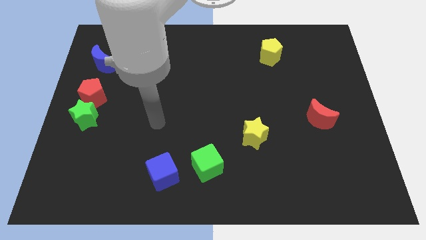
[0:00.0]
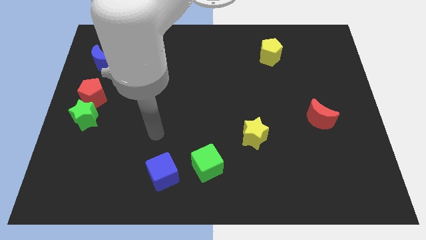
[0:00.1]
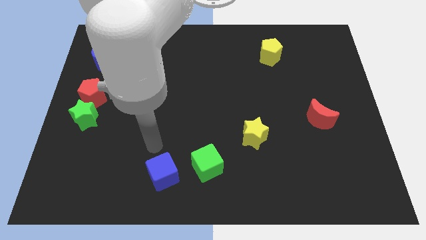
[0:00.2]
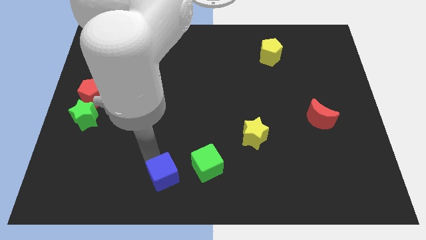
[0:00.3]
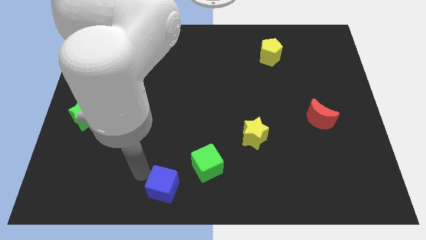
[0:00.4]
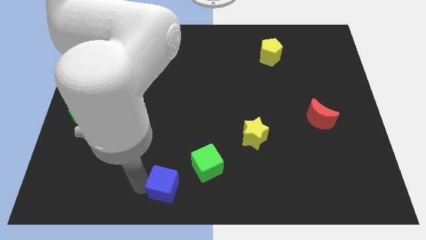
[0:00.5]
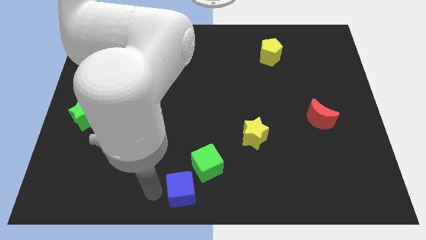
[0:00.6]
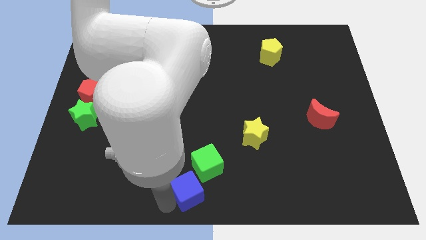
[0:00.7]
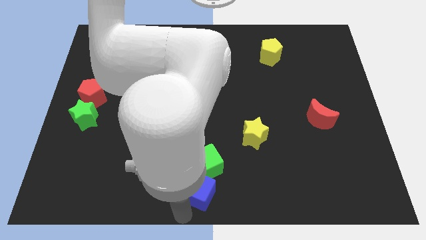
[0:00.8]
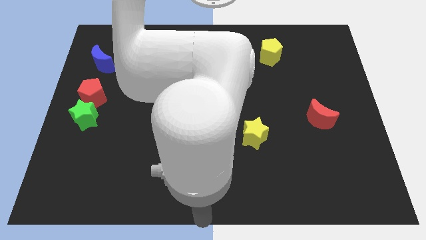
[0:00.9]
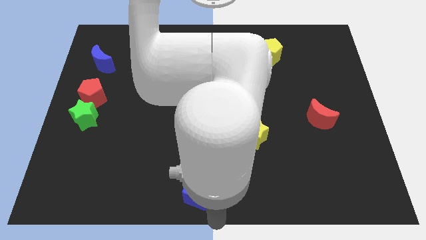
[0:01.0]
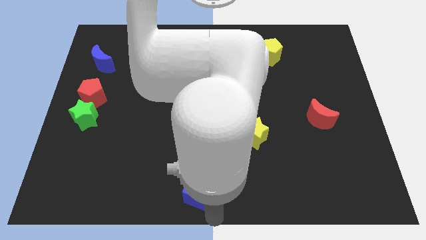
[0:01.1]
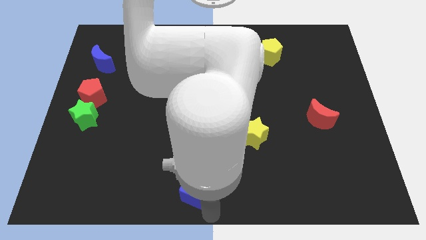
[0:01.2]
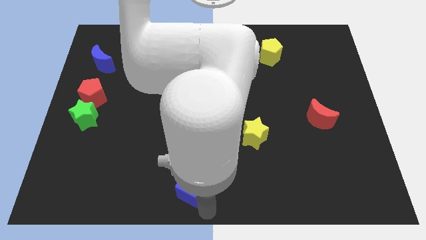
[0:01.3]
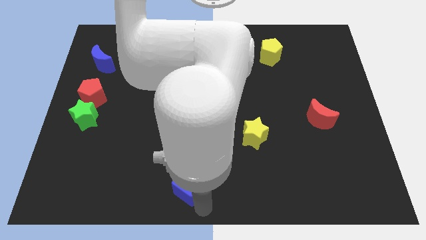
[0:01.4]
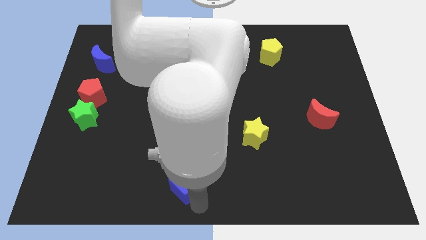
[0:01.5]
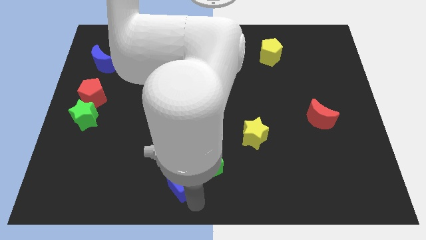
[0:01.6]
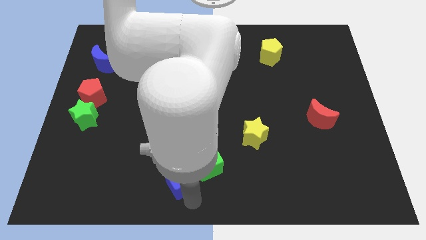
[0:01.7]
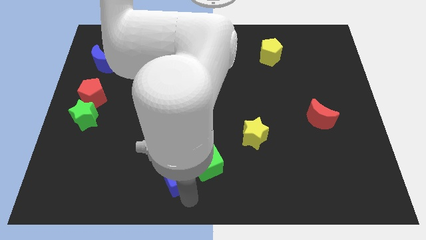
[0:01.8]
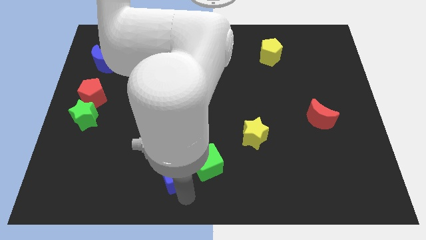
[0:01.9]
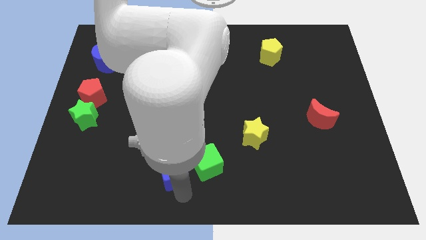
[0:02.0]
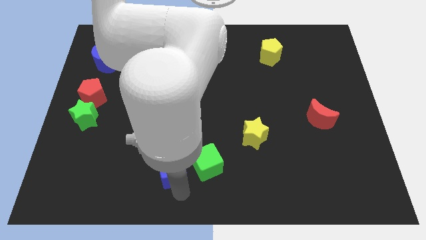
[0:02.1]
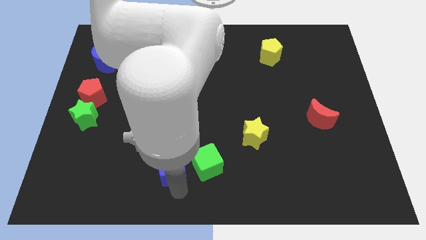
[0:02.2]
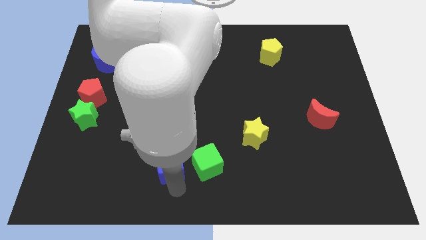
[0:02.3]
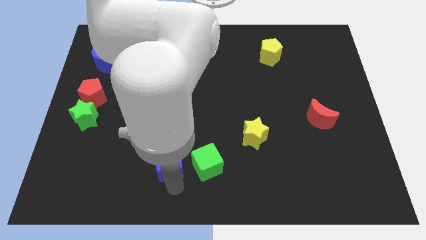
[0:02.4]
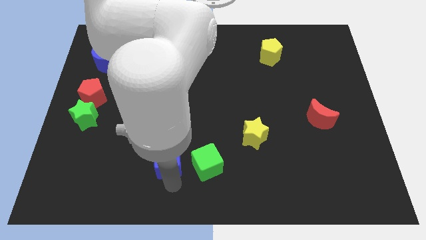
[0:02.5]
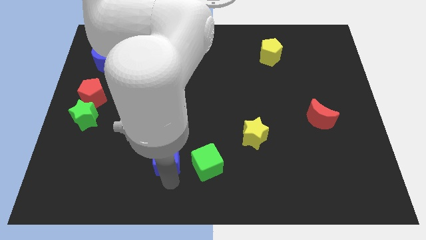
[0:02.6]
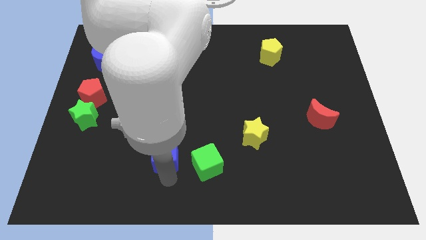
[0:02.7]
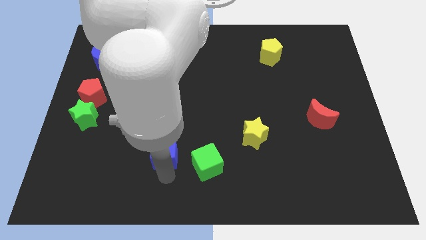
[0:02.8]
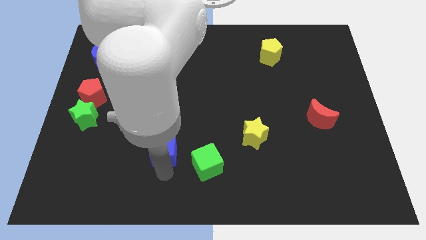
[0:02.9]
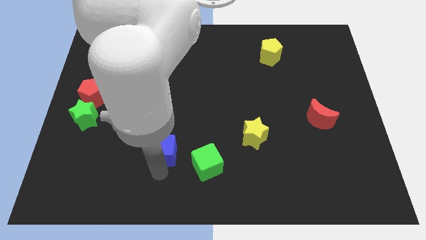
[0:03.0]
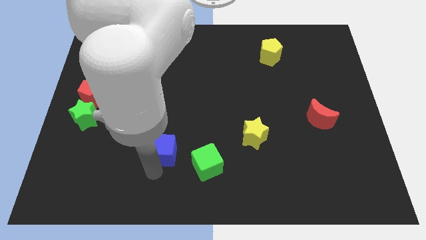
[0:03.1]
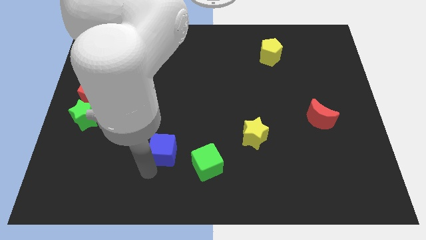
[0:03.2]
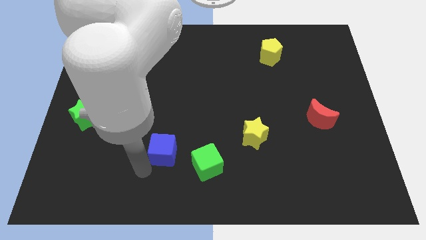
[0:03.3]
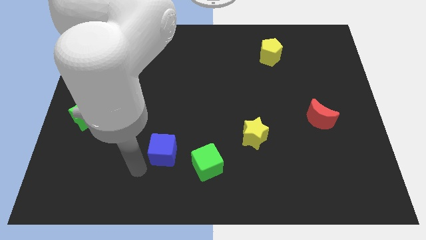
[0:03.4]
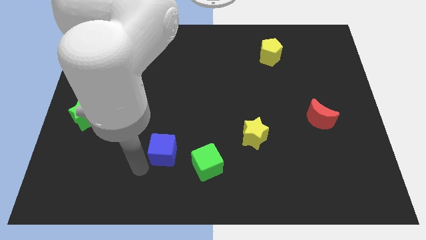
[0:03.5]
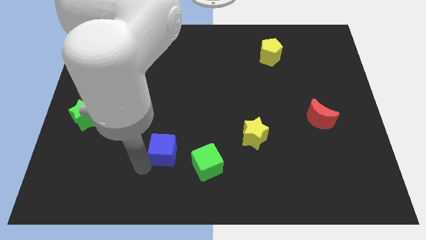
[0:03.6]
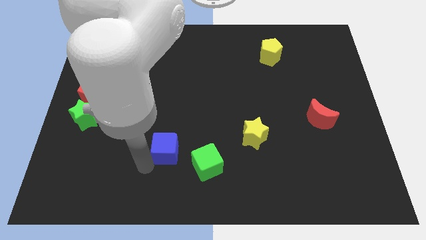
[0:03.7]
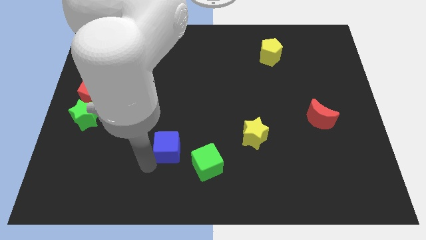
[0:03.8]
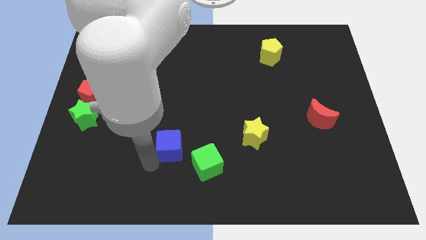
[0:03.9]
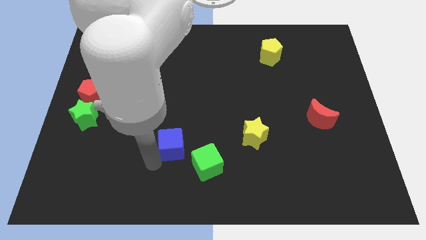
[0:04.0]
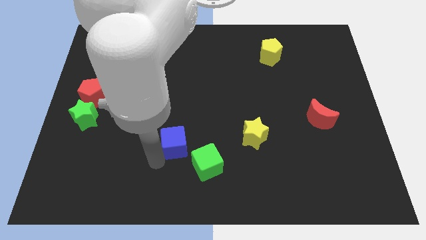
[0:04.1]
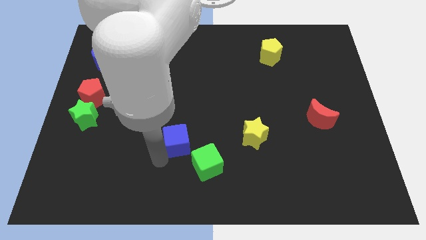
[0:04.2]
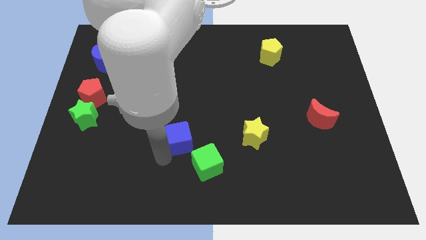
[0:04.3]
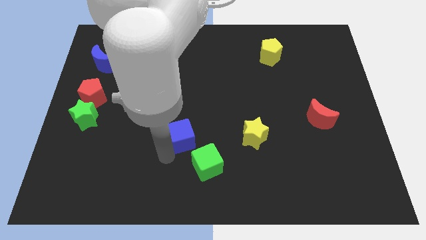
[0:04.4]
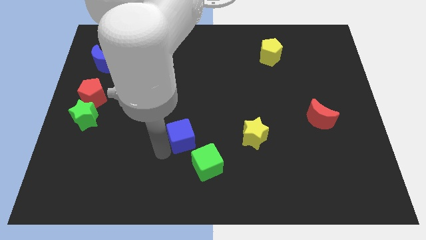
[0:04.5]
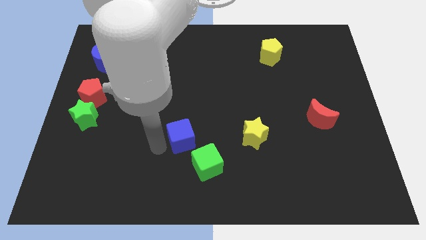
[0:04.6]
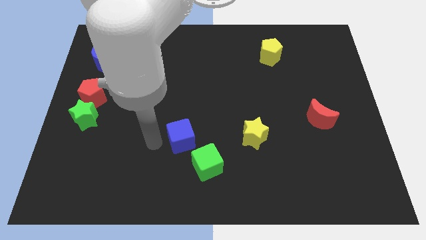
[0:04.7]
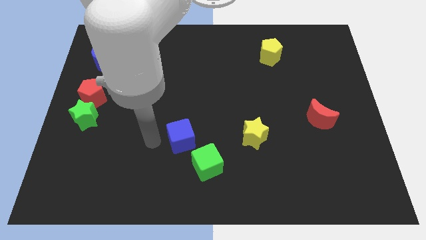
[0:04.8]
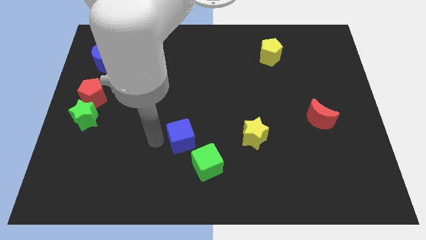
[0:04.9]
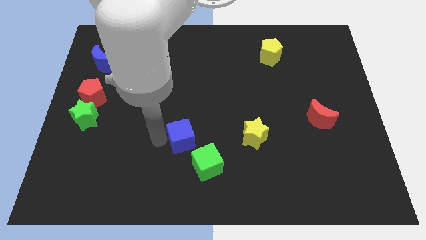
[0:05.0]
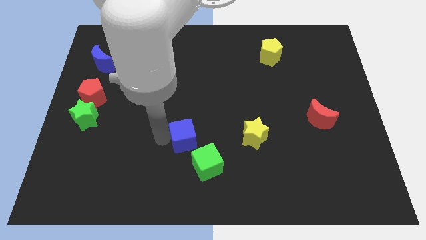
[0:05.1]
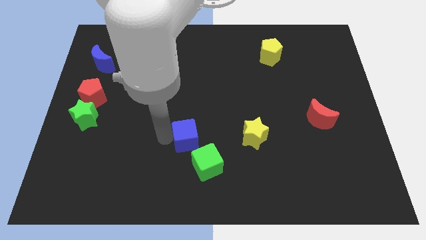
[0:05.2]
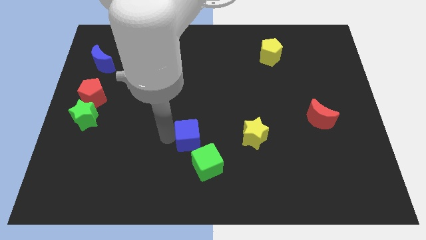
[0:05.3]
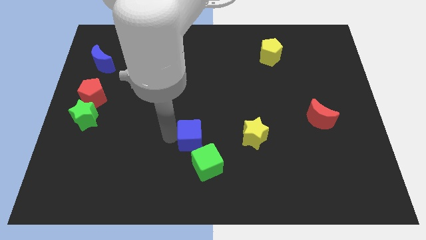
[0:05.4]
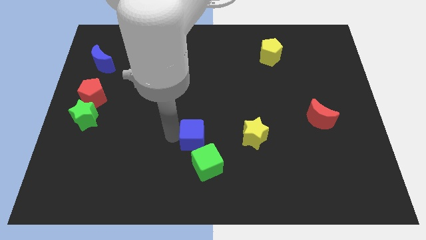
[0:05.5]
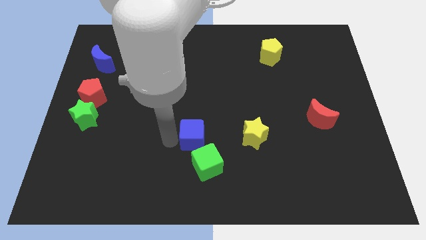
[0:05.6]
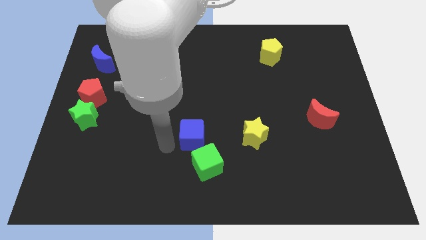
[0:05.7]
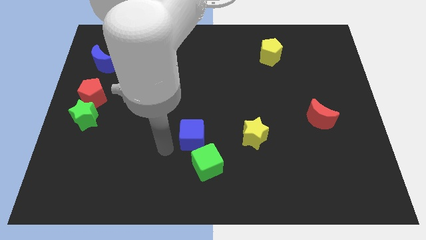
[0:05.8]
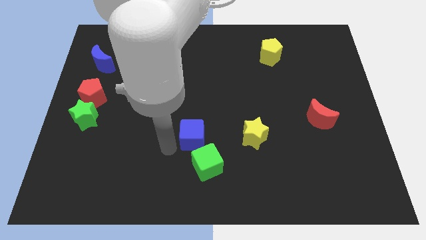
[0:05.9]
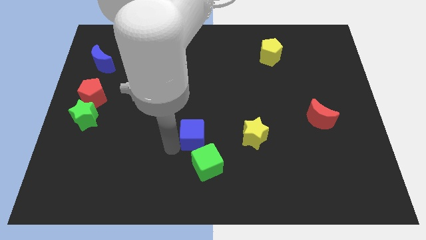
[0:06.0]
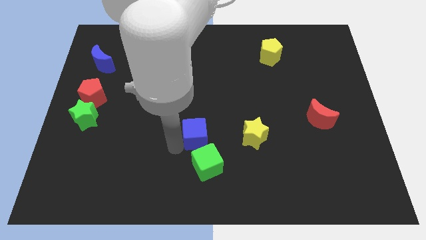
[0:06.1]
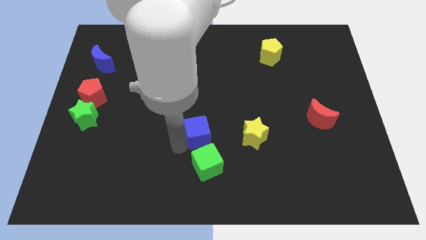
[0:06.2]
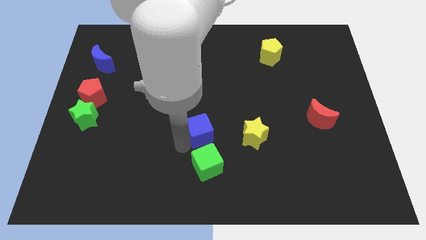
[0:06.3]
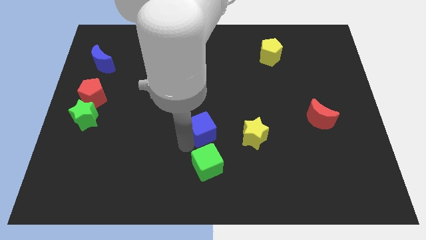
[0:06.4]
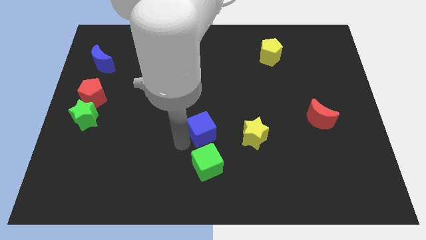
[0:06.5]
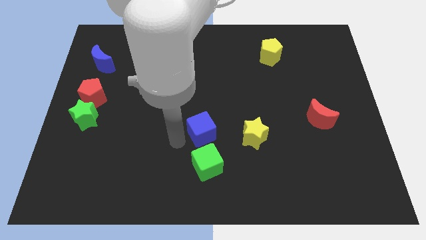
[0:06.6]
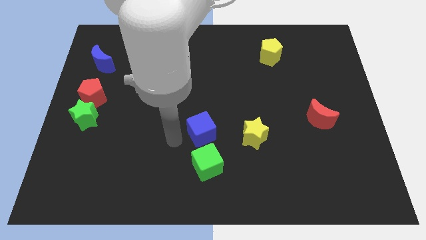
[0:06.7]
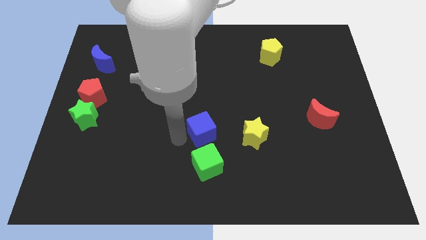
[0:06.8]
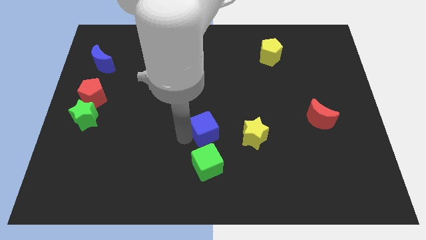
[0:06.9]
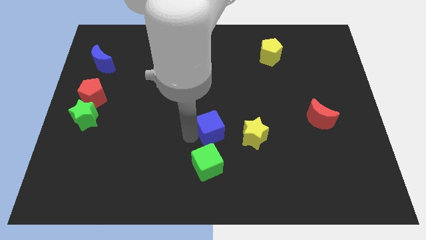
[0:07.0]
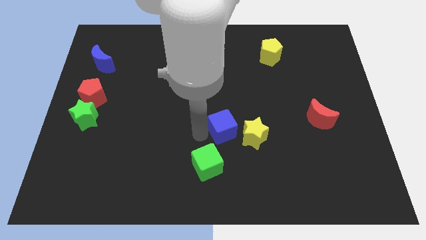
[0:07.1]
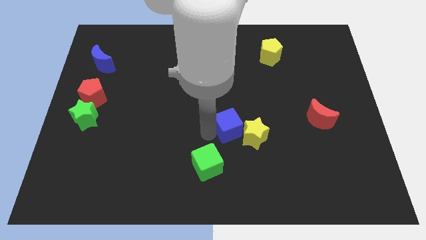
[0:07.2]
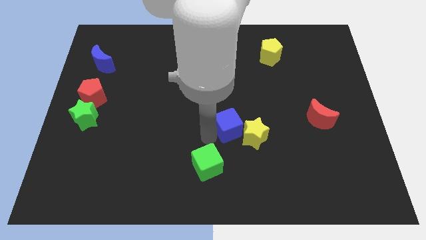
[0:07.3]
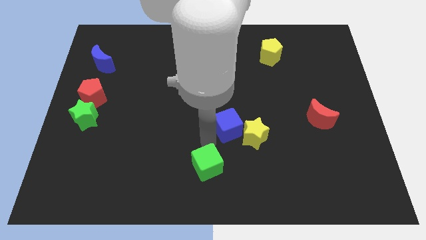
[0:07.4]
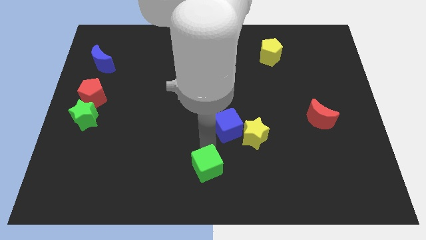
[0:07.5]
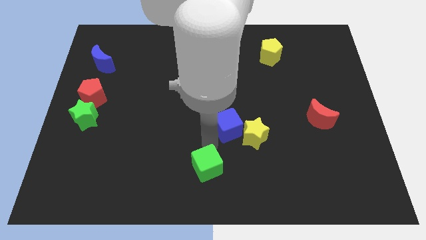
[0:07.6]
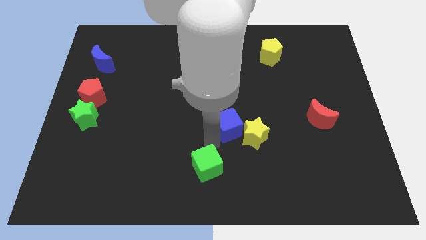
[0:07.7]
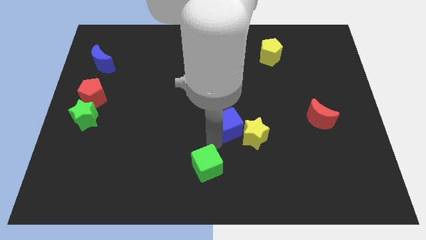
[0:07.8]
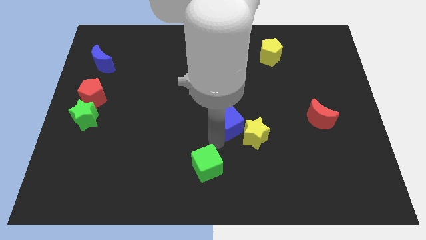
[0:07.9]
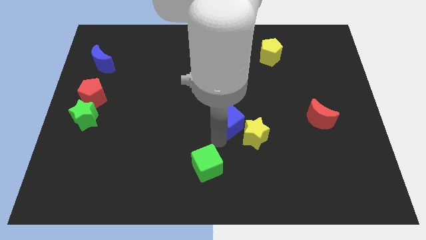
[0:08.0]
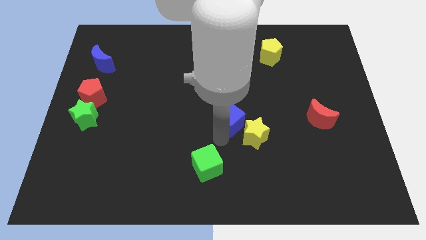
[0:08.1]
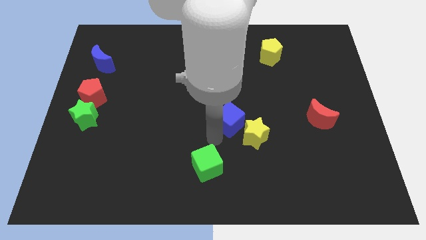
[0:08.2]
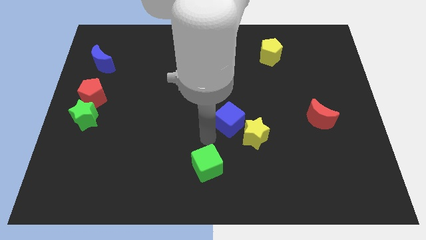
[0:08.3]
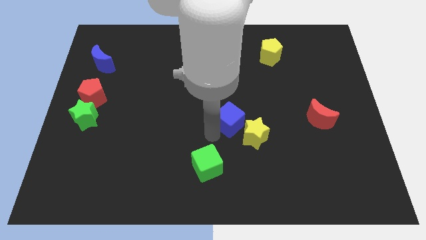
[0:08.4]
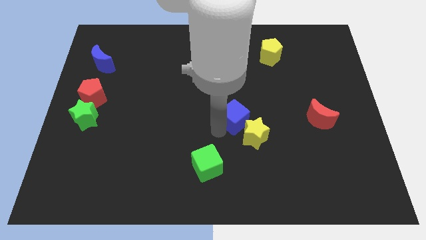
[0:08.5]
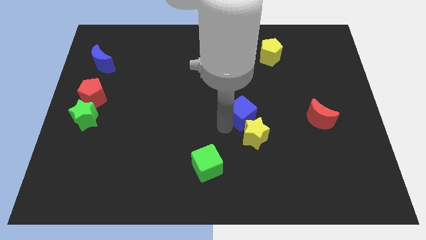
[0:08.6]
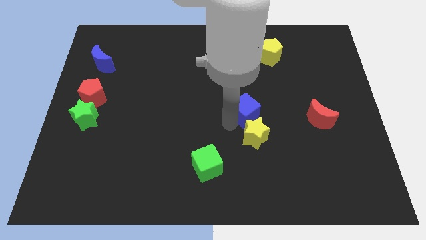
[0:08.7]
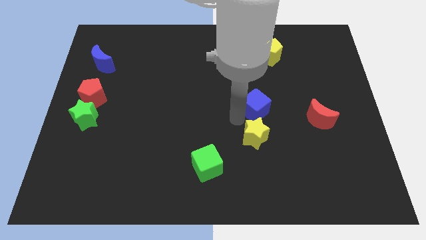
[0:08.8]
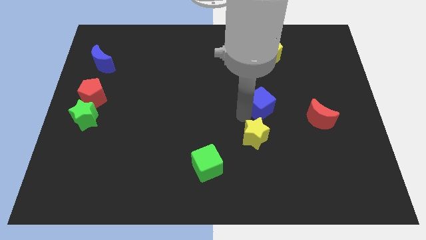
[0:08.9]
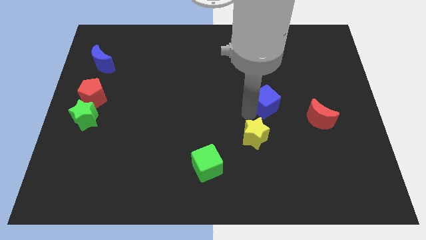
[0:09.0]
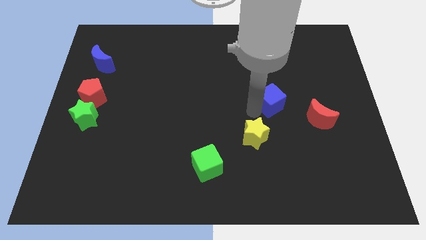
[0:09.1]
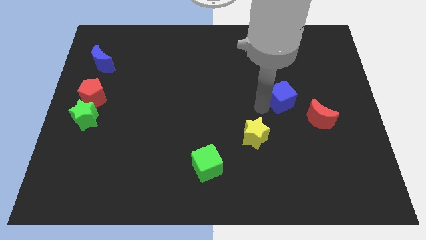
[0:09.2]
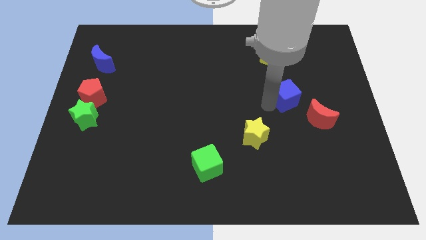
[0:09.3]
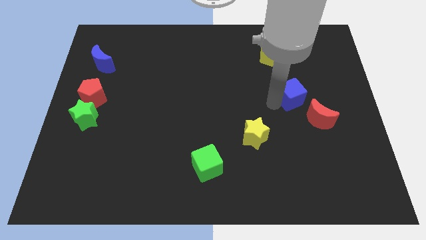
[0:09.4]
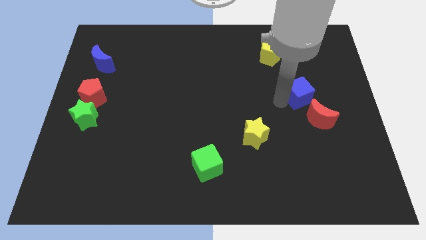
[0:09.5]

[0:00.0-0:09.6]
put the blue cube to the top side of the red moon
